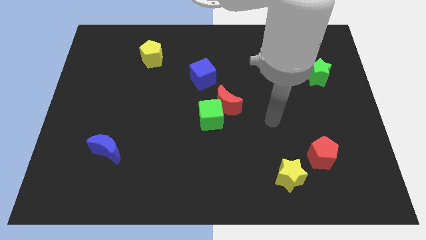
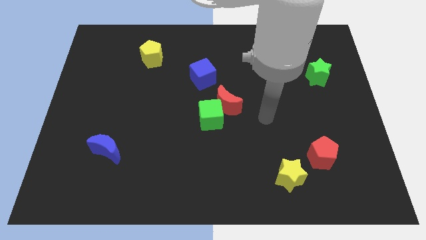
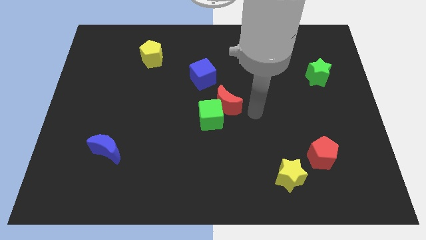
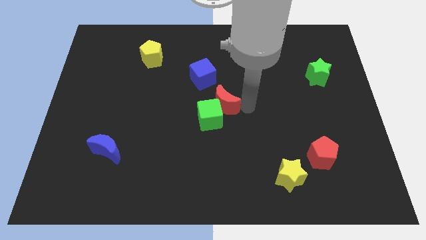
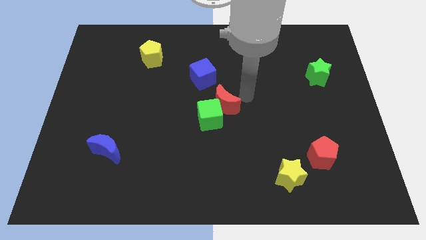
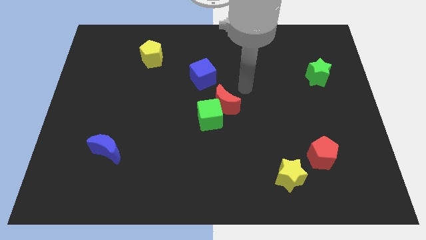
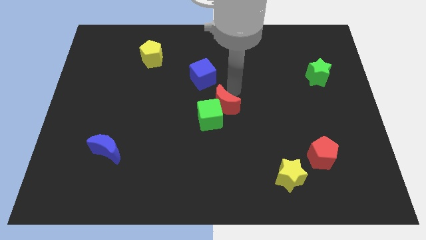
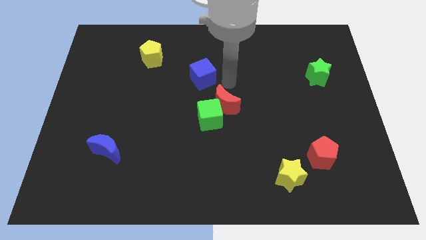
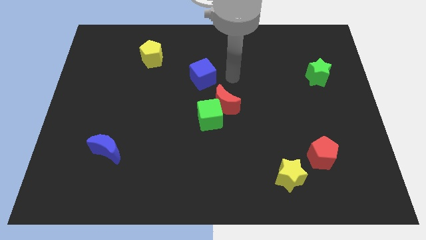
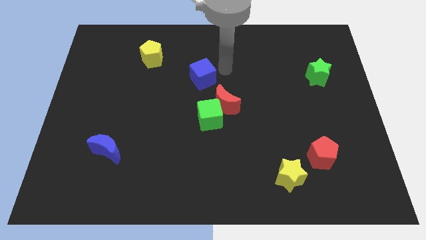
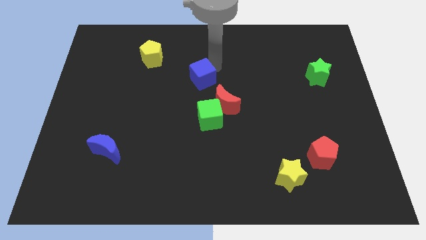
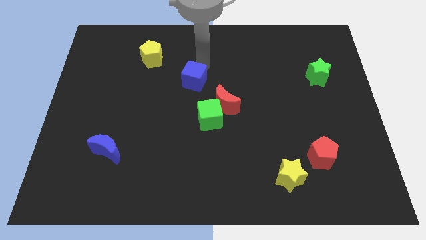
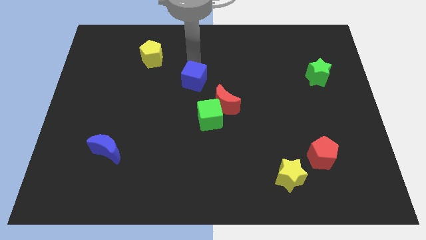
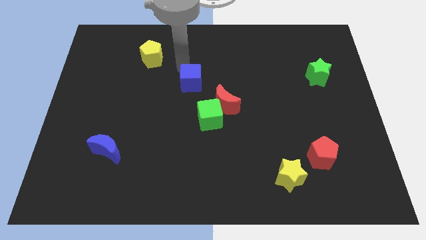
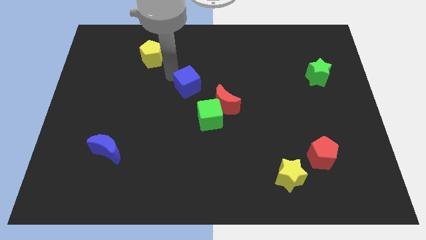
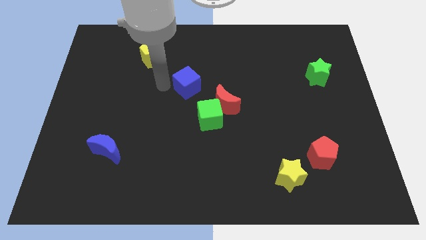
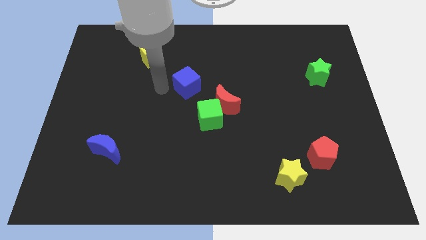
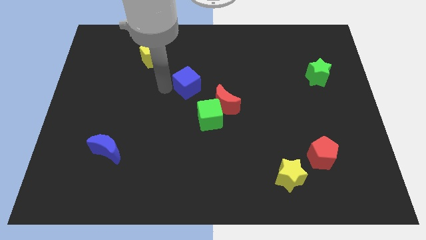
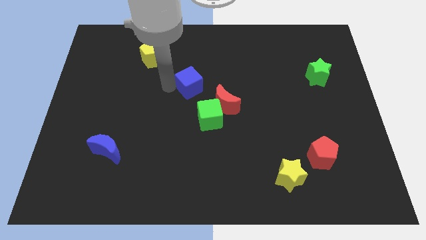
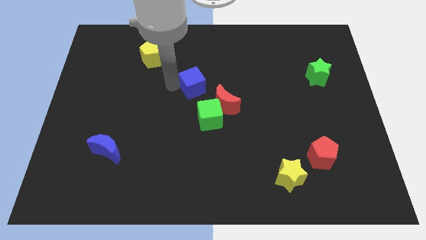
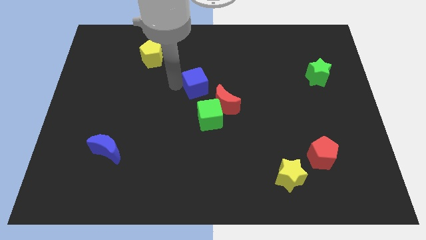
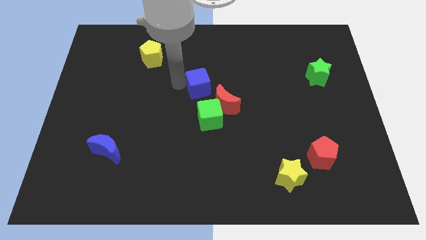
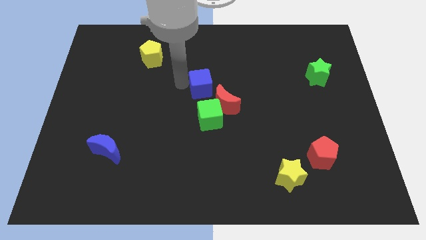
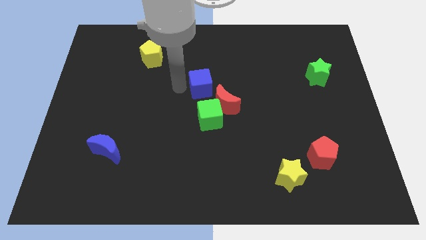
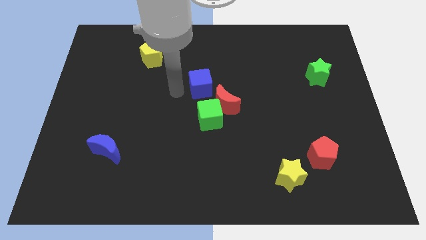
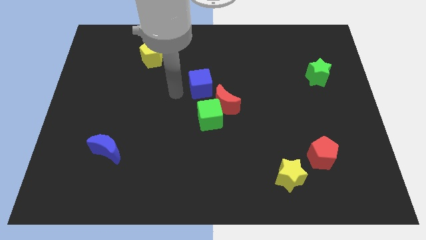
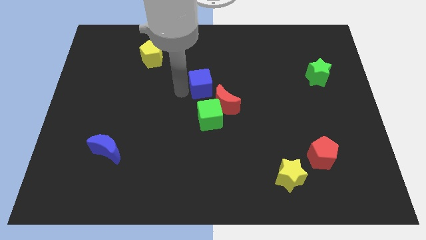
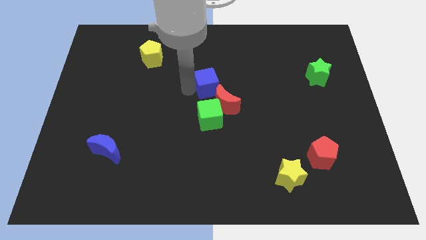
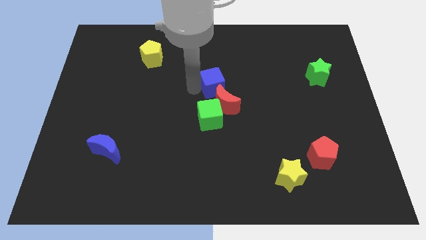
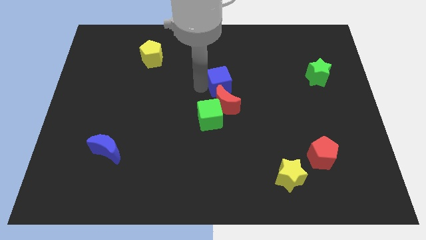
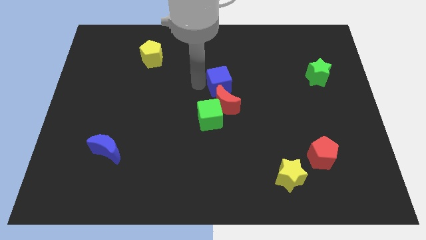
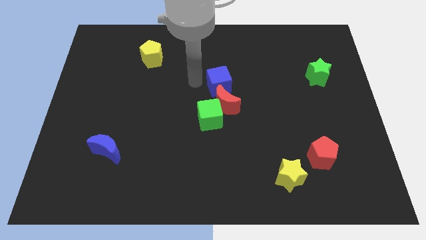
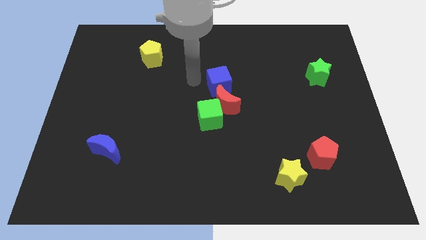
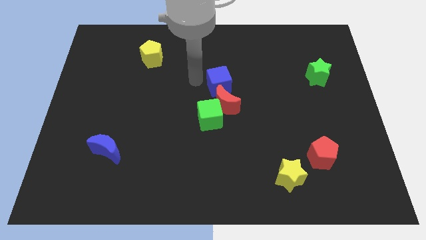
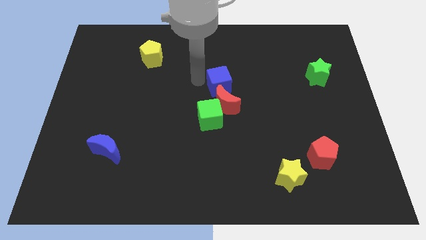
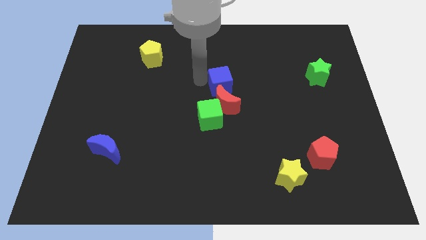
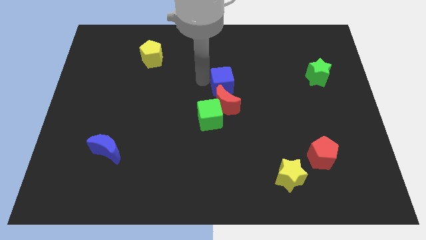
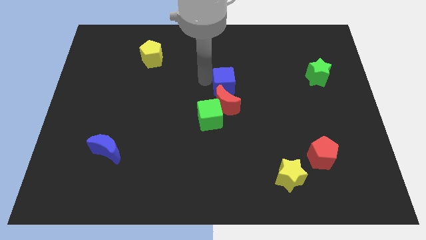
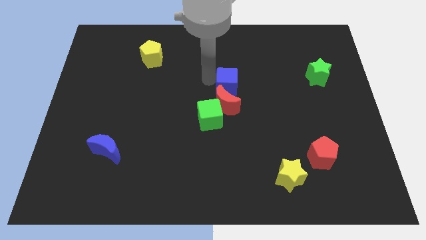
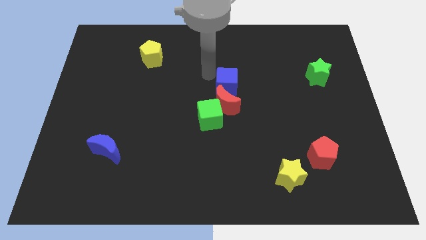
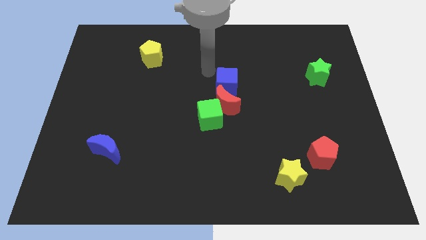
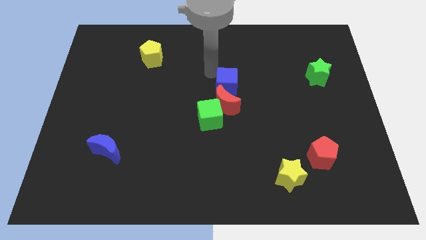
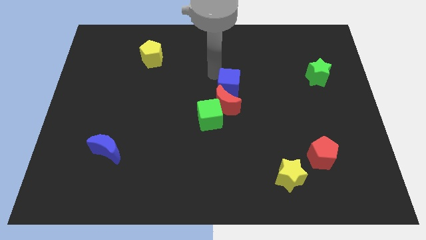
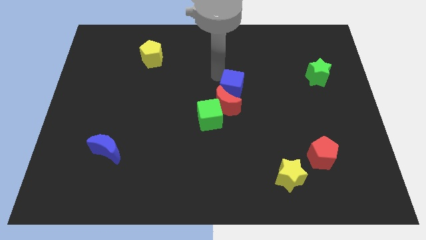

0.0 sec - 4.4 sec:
slightly push the blue cube diagonally downwards and to the right

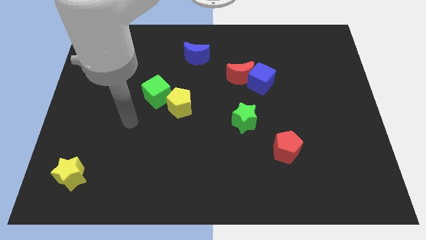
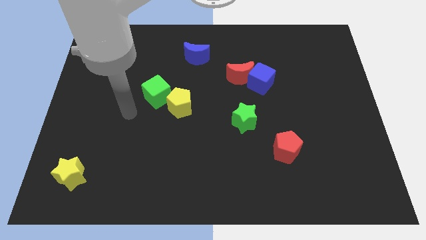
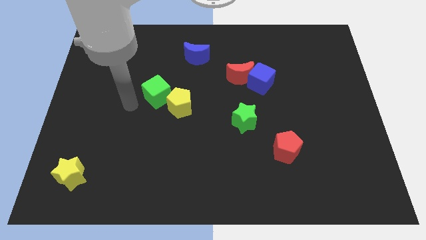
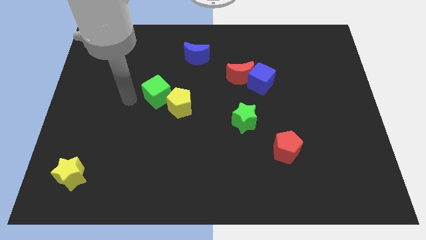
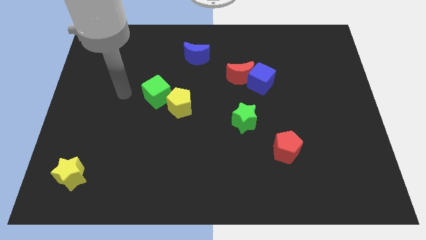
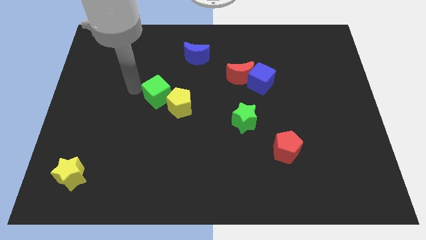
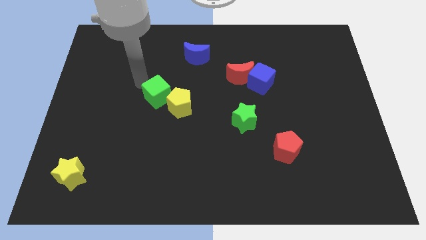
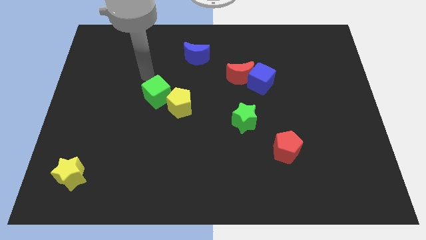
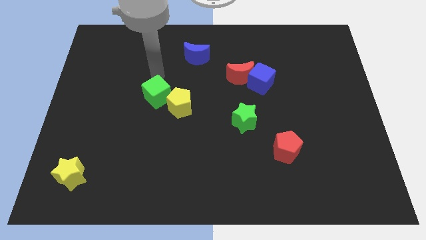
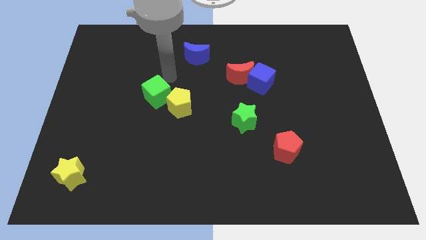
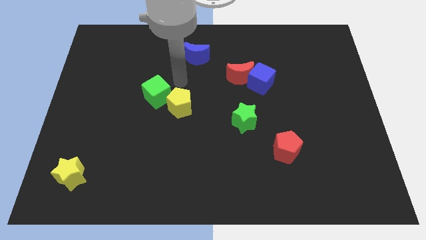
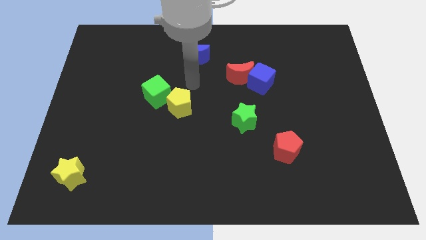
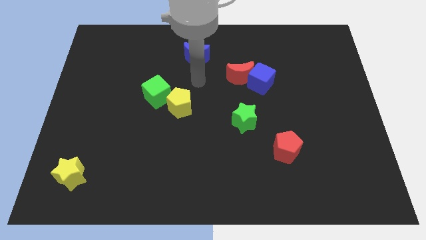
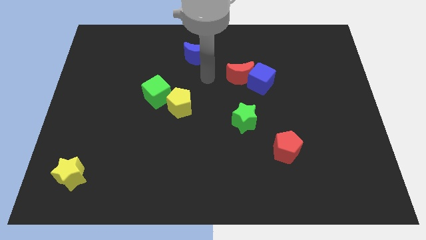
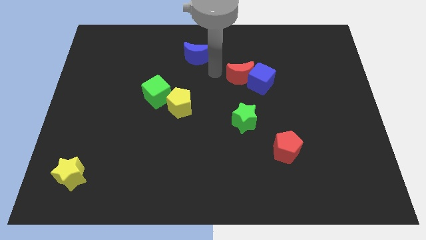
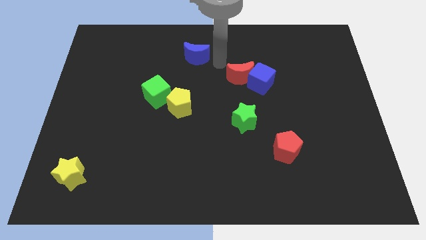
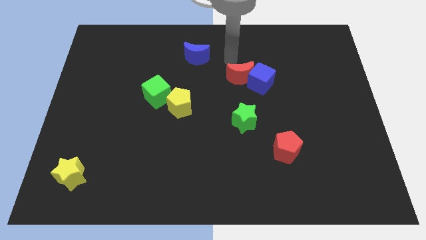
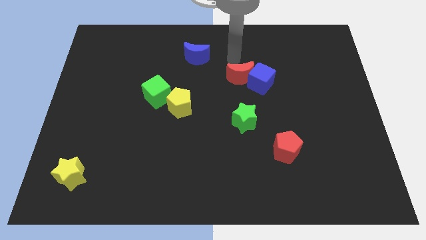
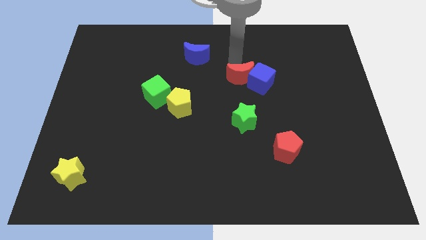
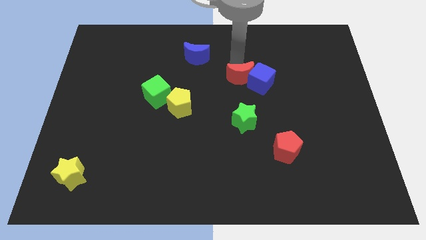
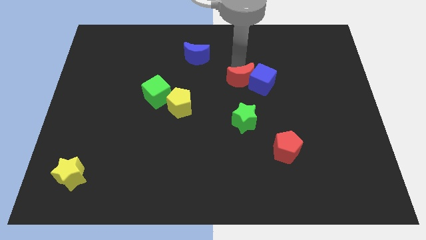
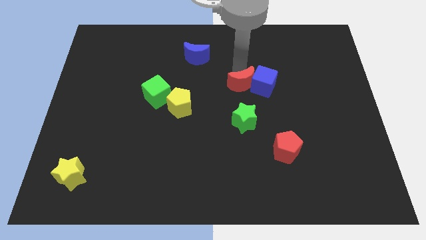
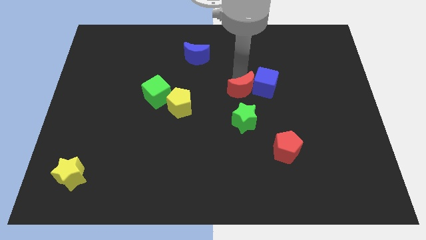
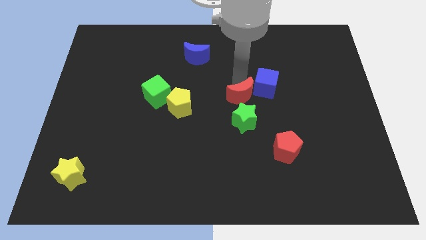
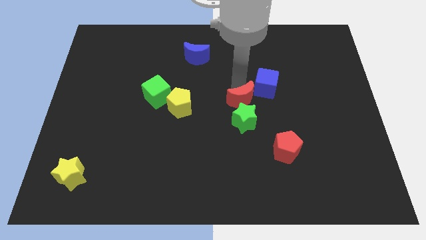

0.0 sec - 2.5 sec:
slightly push the red moon down

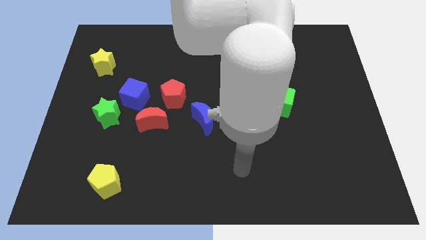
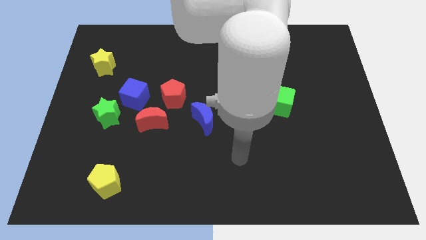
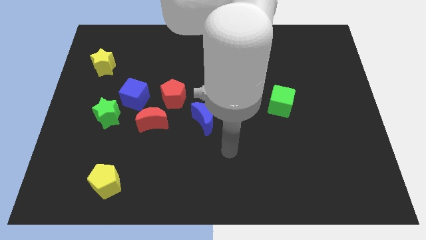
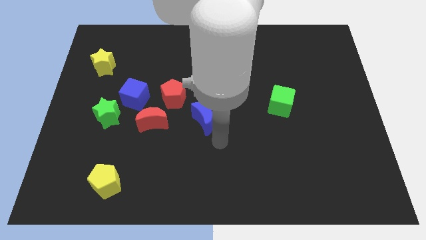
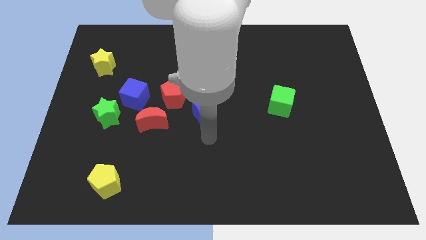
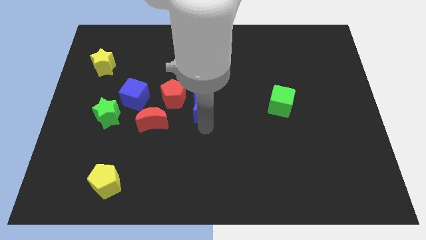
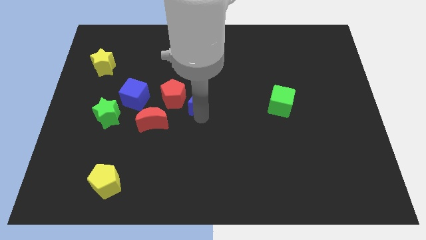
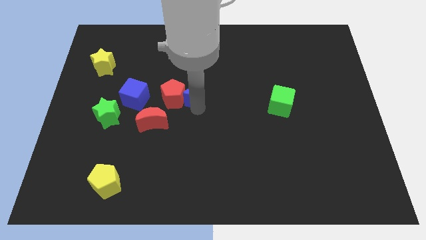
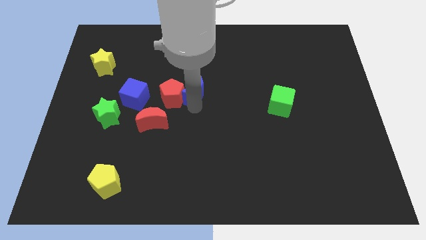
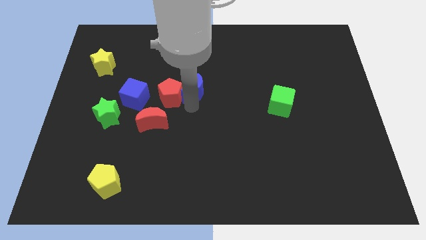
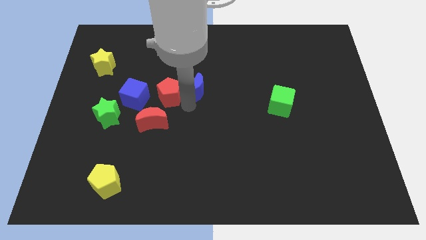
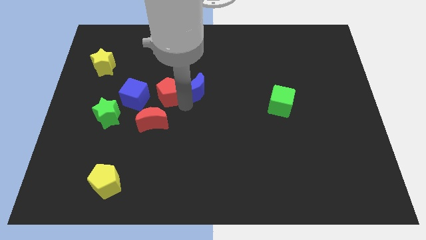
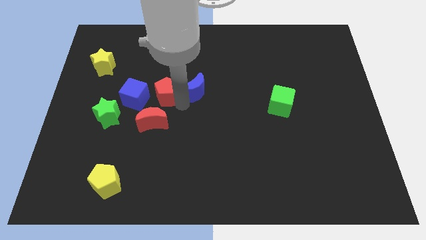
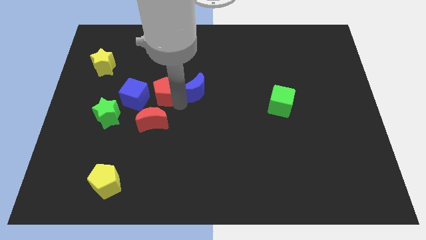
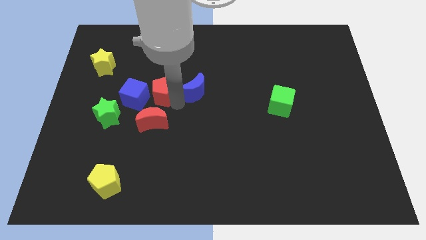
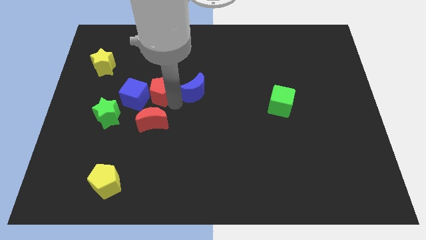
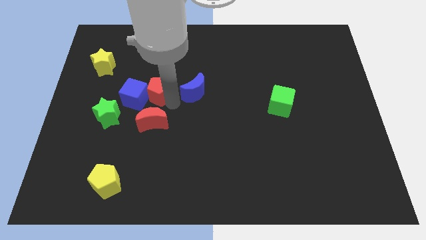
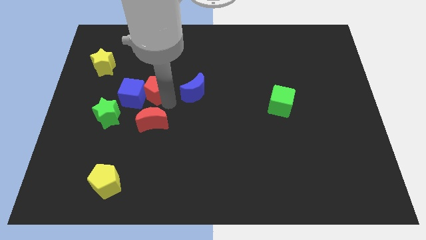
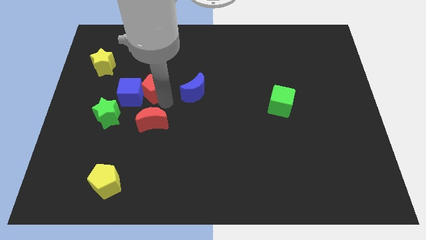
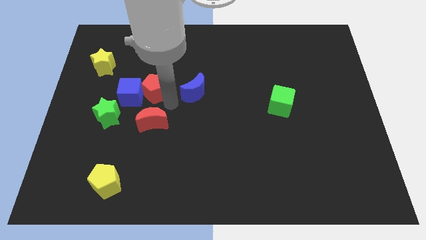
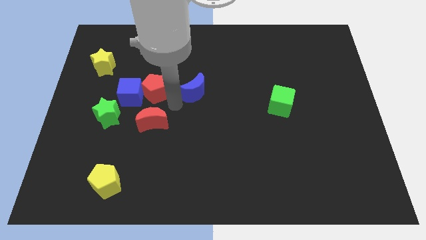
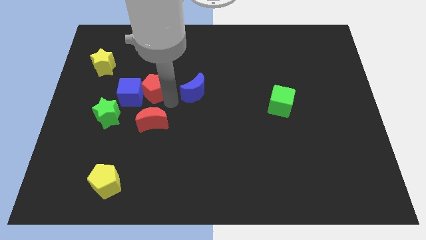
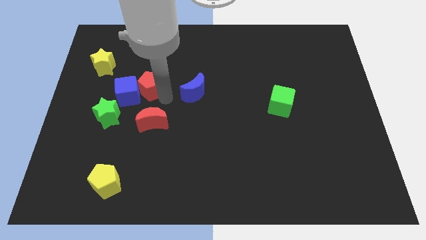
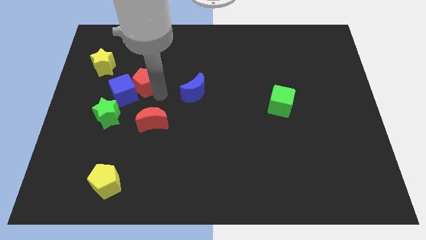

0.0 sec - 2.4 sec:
move the red pentagon left somewhat
